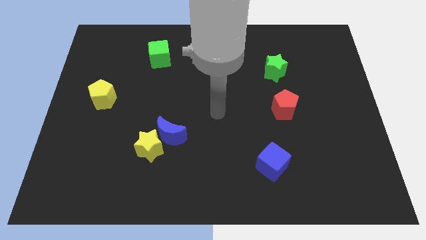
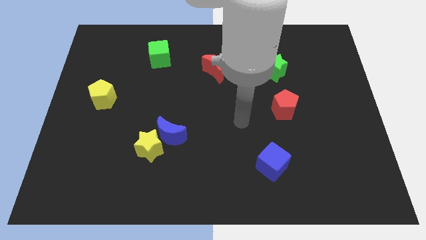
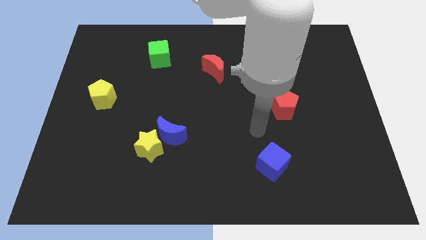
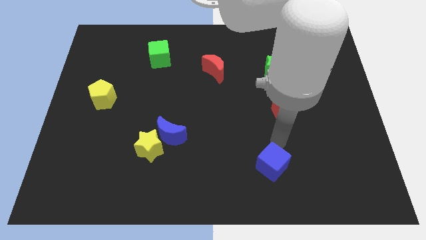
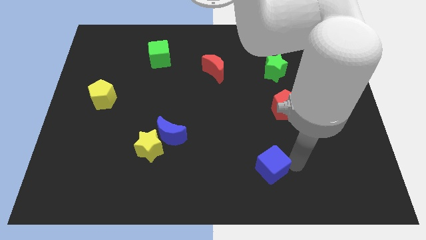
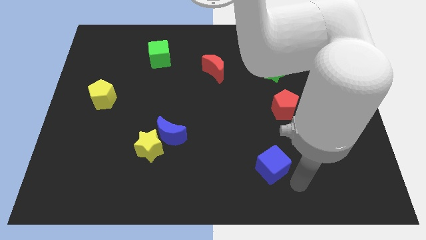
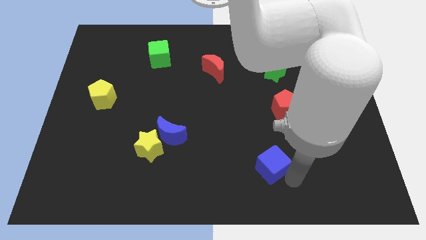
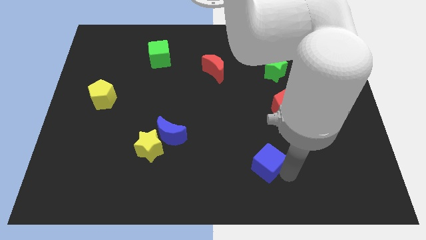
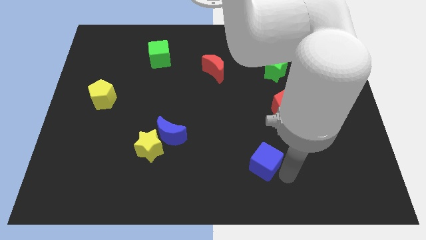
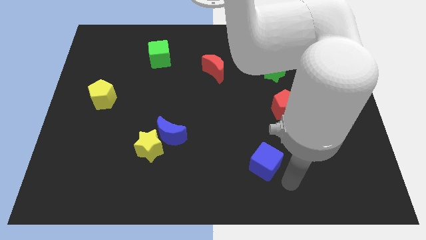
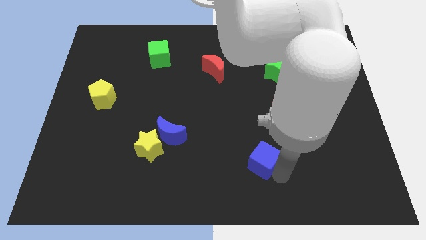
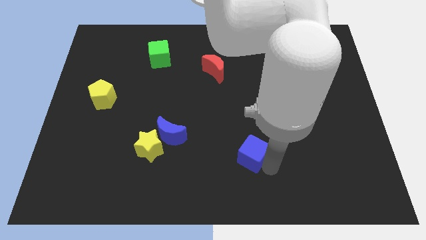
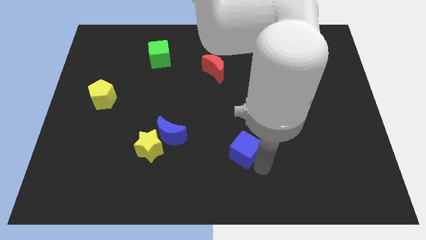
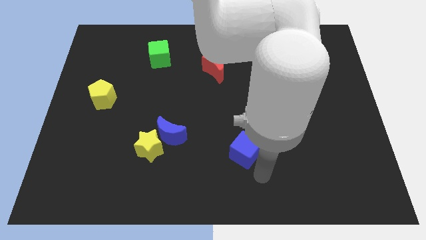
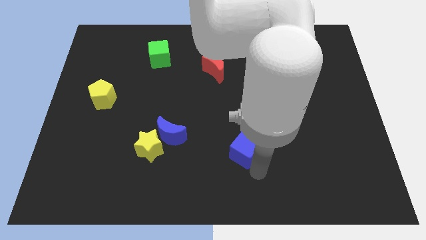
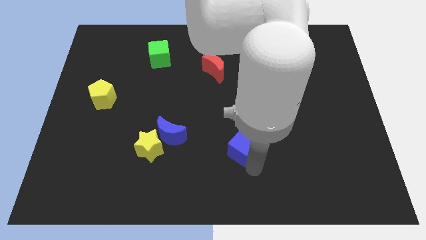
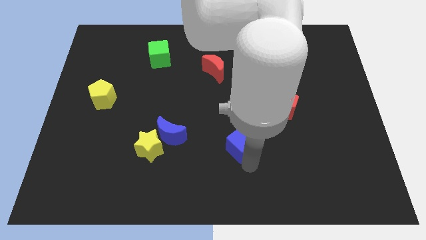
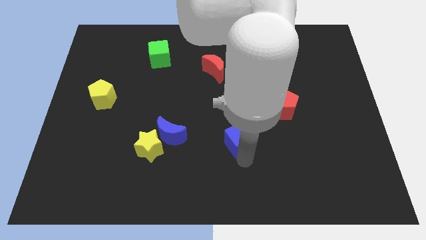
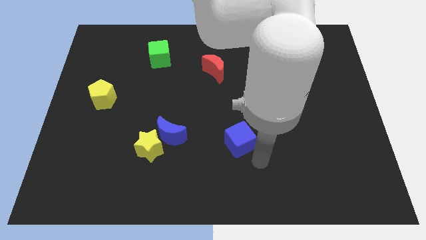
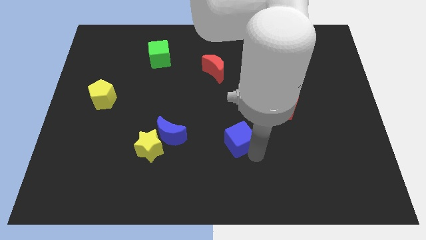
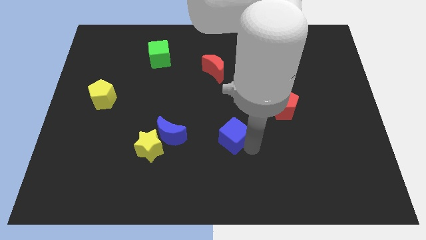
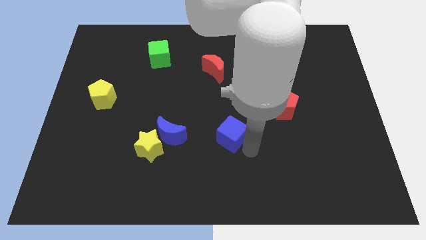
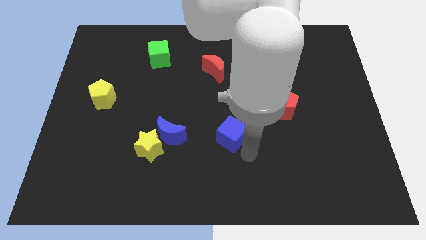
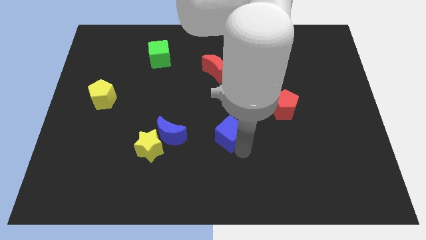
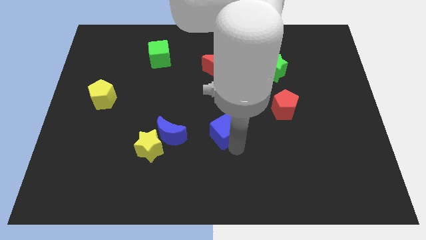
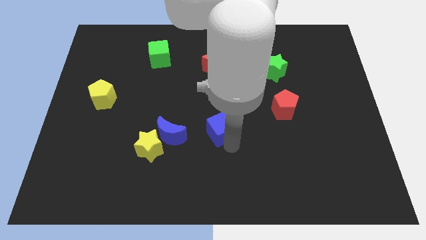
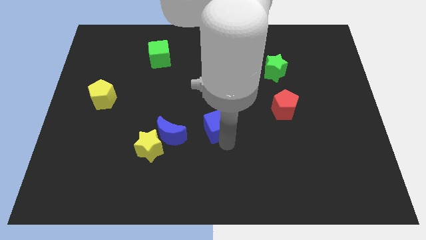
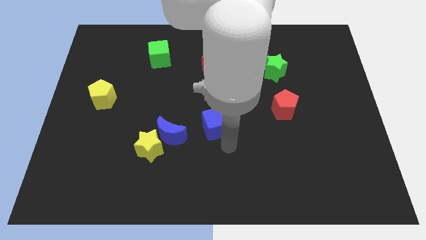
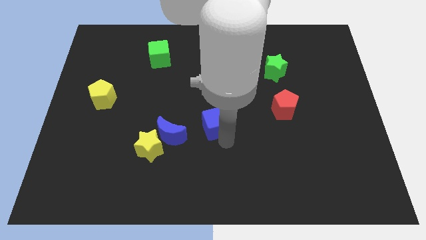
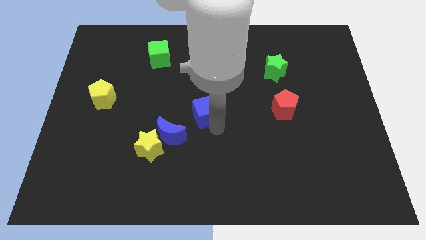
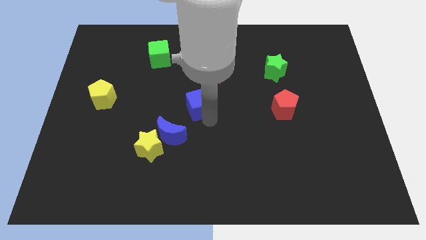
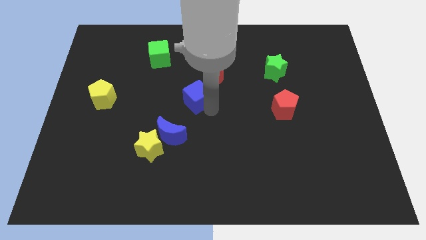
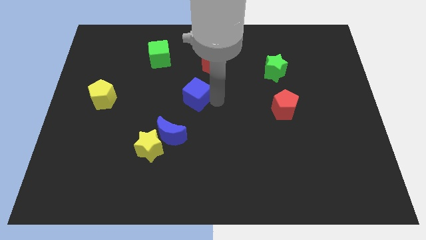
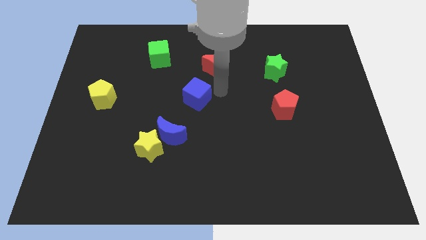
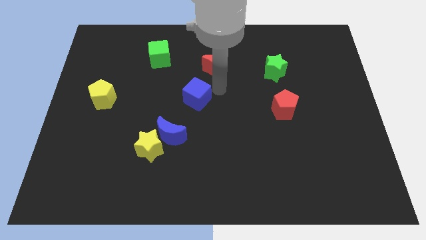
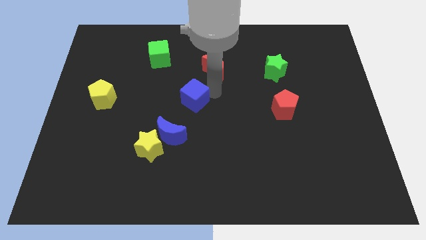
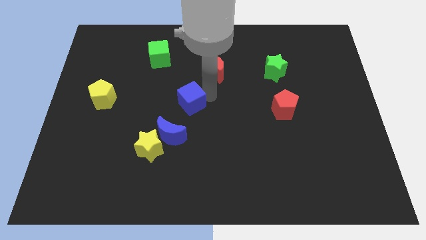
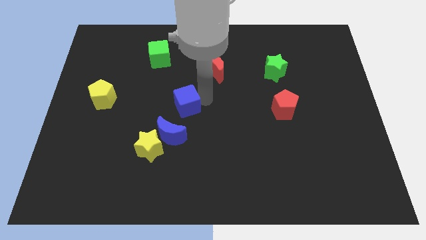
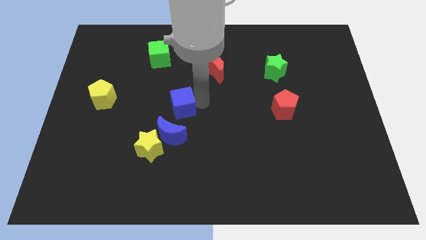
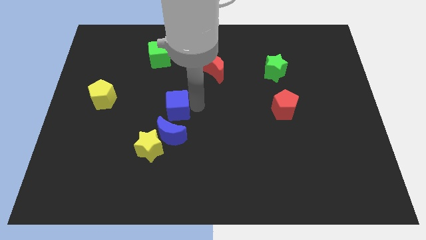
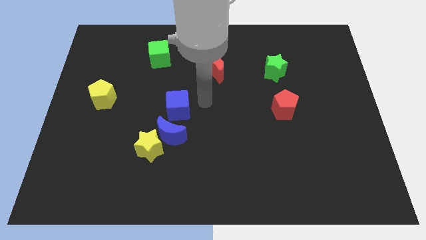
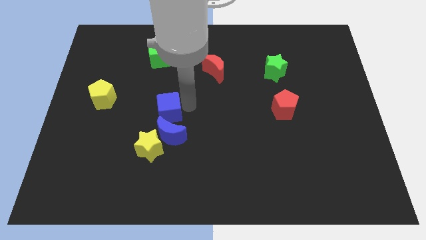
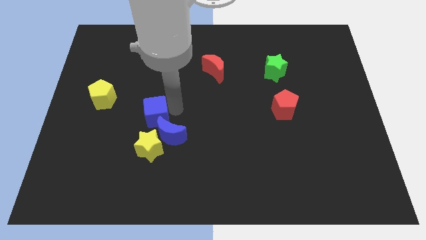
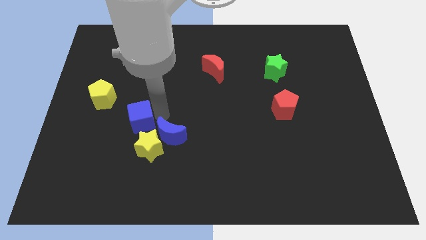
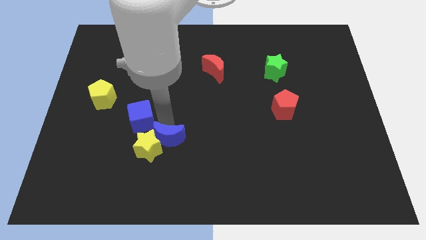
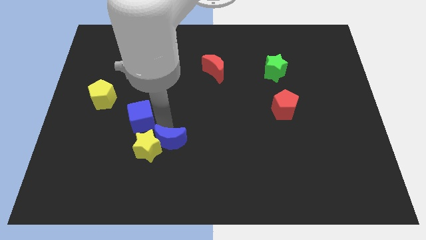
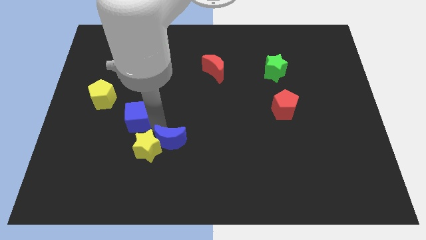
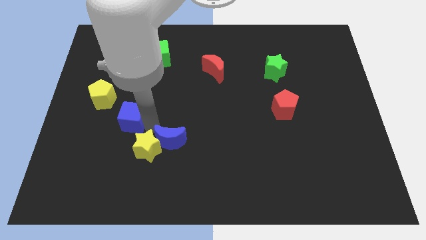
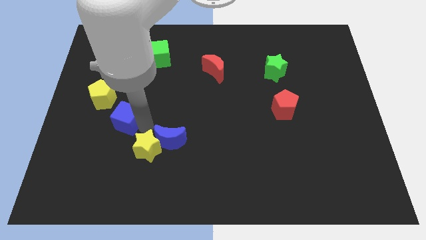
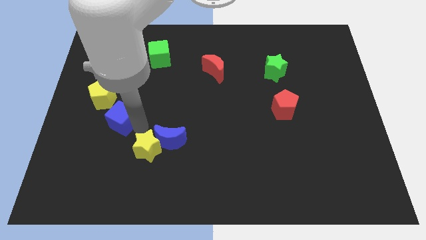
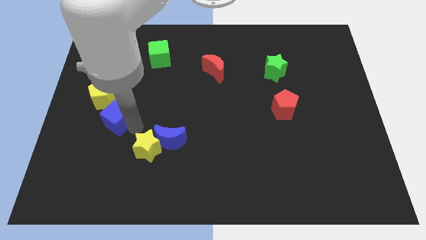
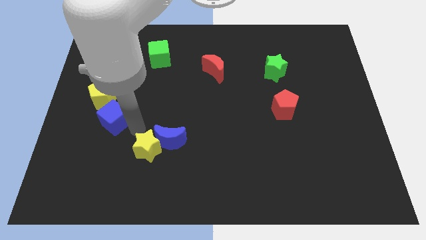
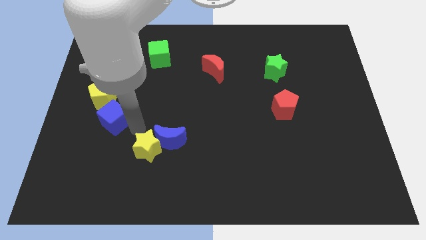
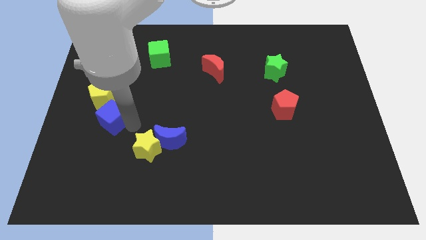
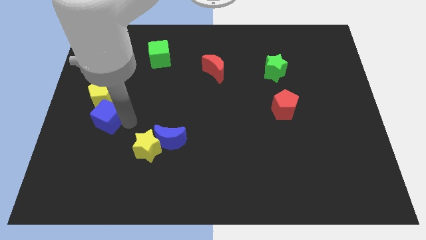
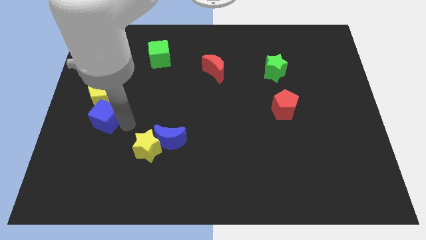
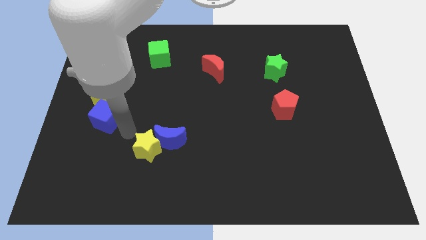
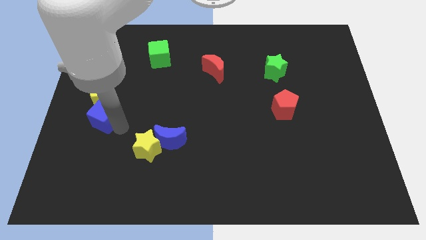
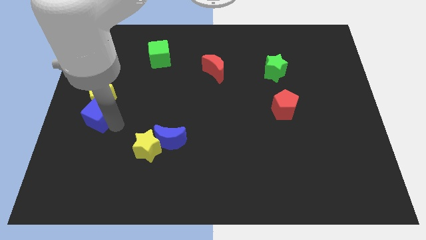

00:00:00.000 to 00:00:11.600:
push the blue cube to the left side of the board

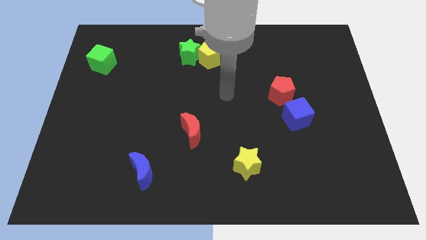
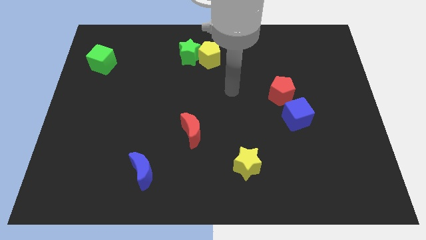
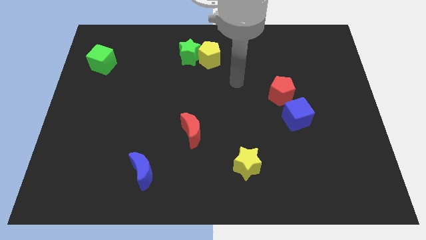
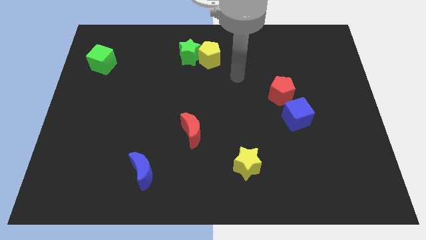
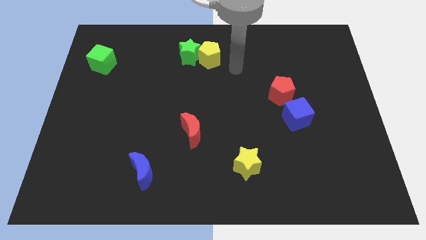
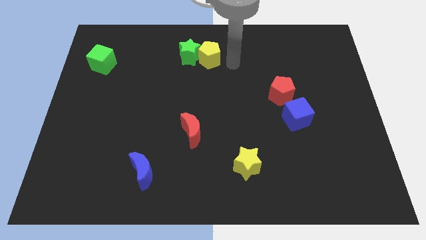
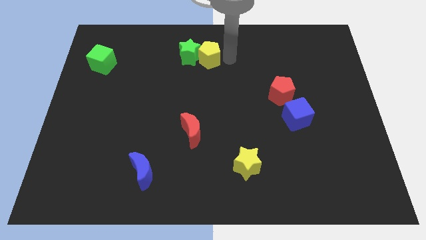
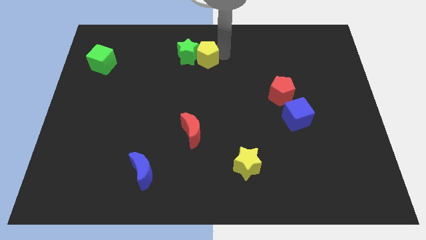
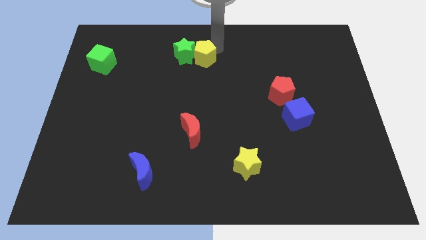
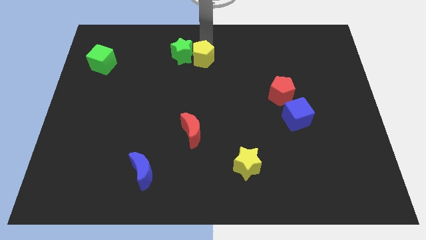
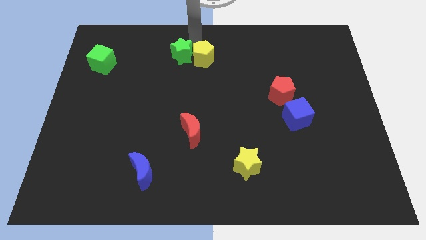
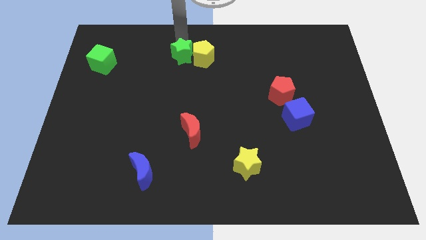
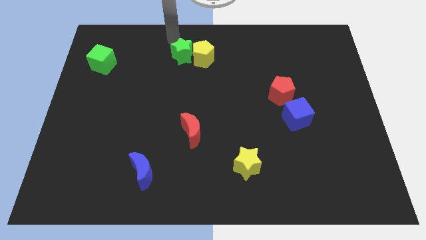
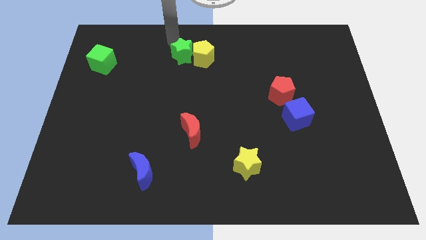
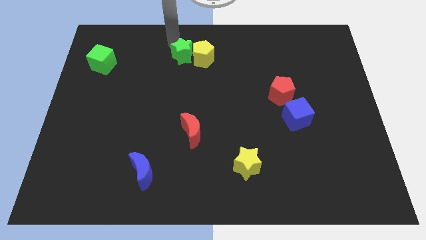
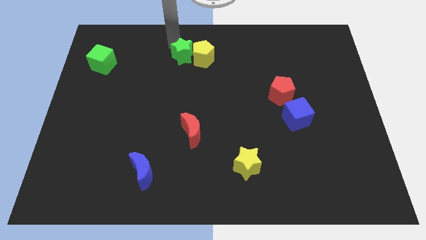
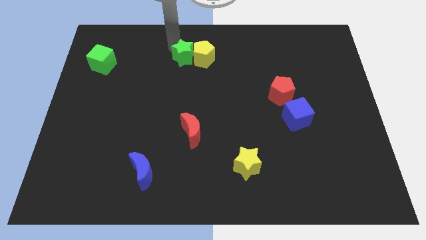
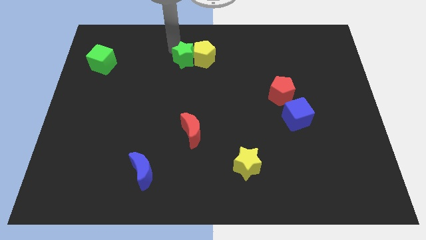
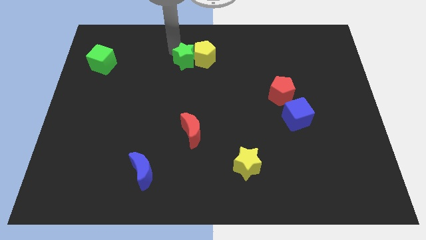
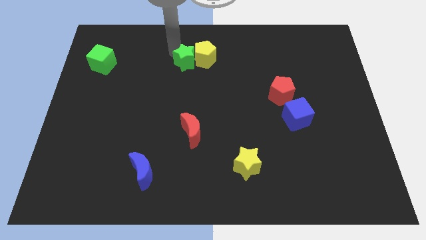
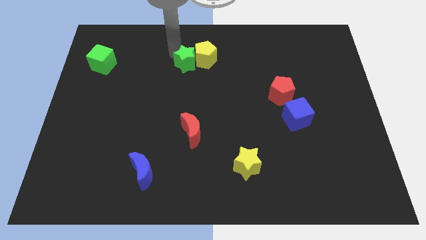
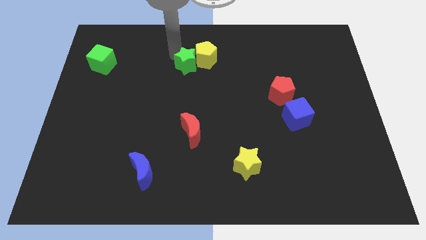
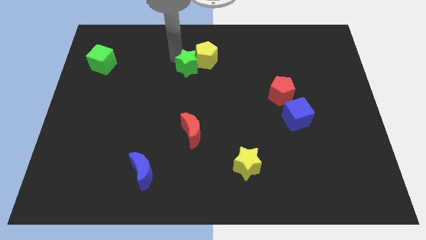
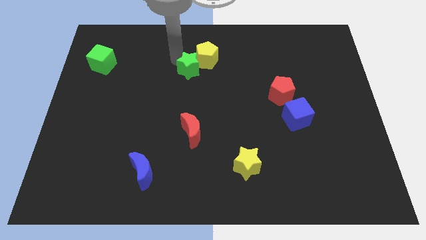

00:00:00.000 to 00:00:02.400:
move the green star to the middle
